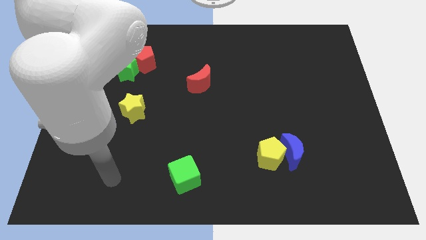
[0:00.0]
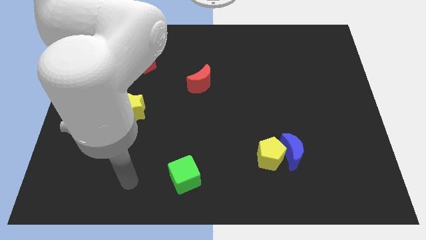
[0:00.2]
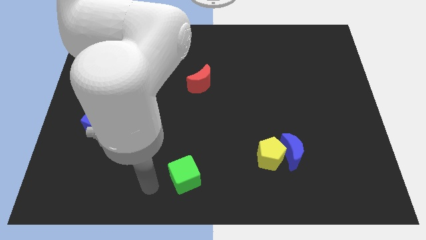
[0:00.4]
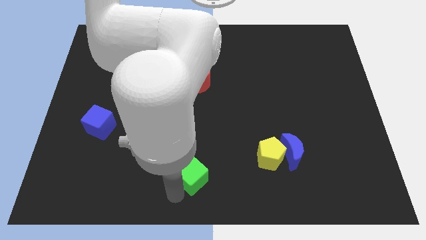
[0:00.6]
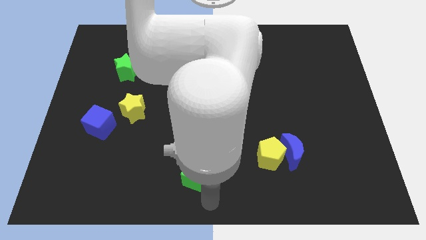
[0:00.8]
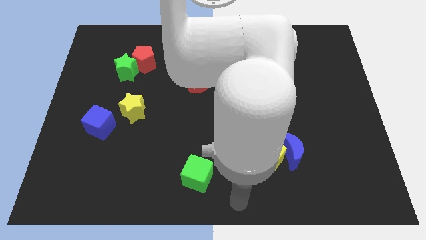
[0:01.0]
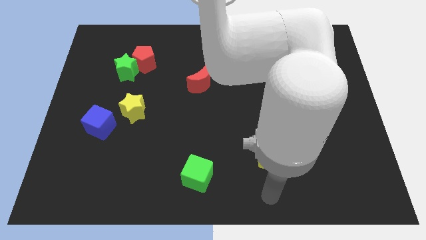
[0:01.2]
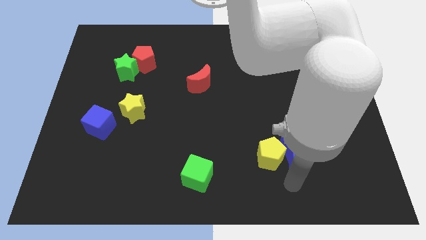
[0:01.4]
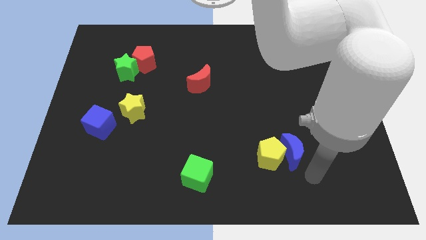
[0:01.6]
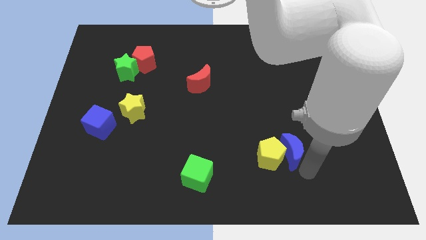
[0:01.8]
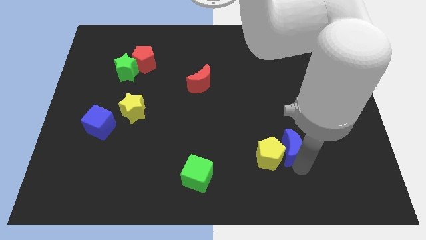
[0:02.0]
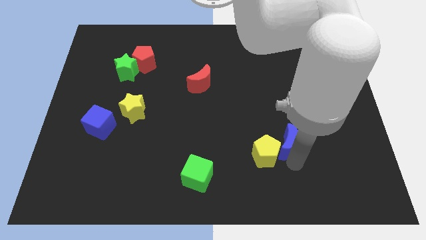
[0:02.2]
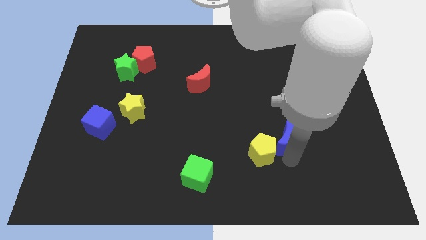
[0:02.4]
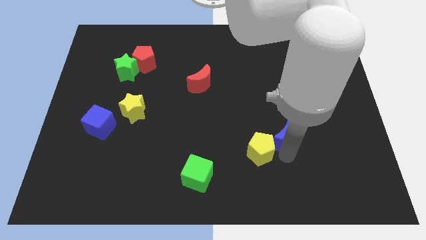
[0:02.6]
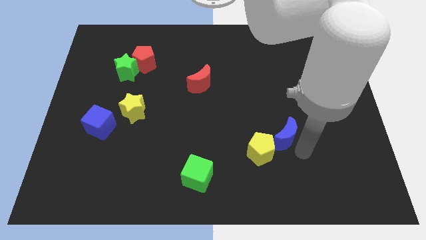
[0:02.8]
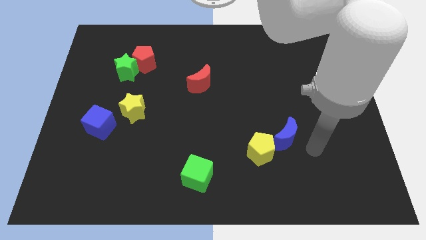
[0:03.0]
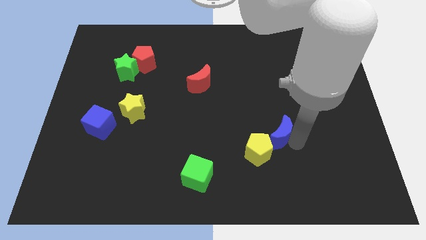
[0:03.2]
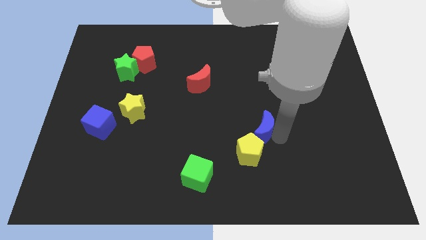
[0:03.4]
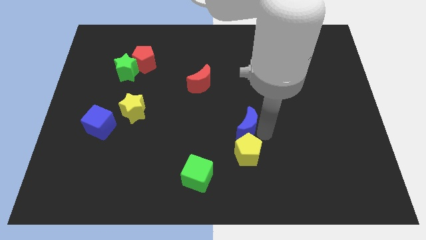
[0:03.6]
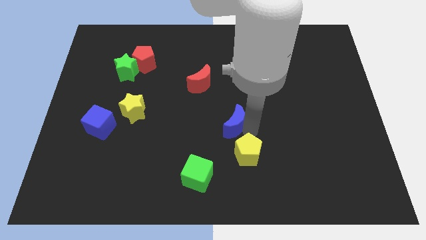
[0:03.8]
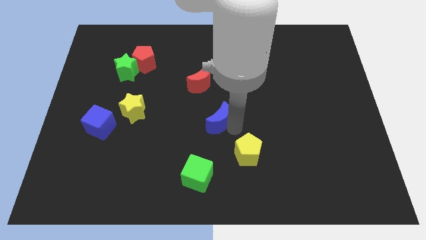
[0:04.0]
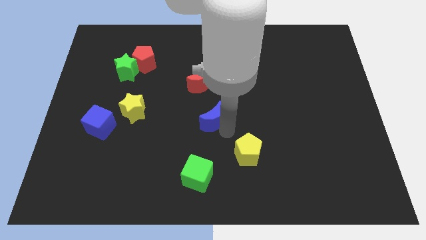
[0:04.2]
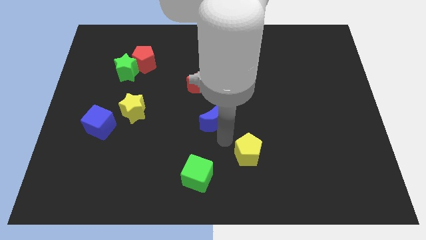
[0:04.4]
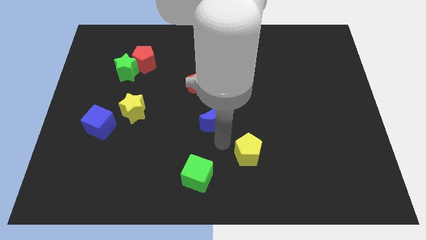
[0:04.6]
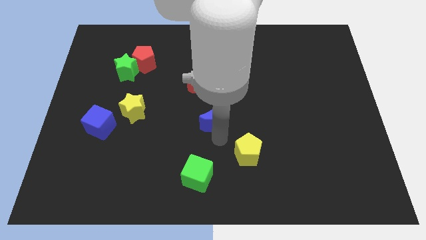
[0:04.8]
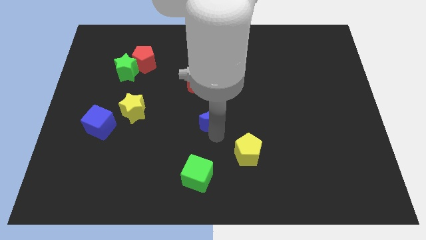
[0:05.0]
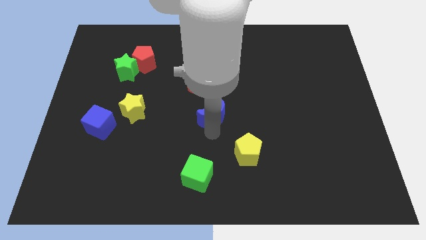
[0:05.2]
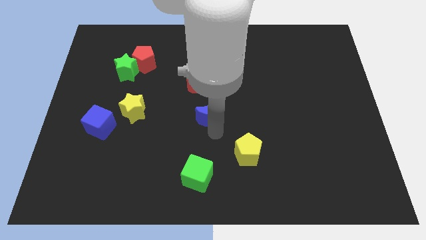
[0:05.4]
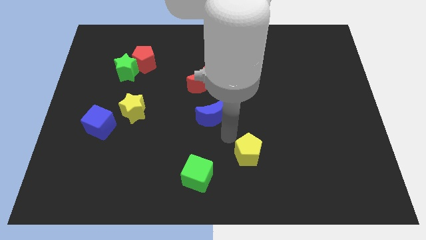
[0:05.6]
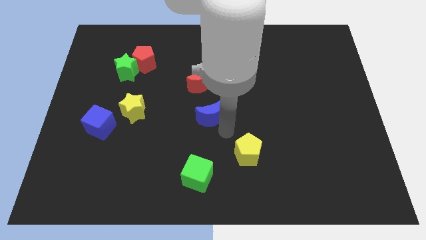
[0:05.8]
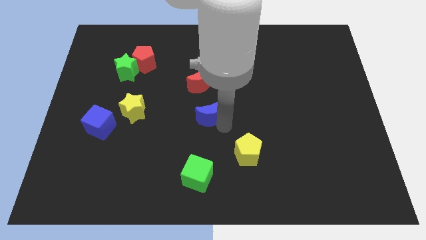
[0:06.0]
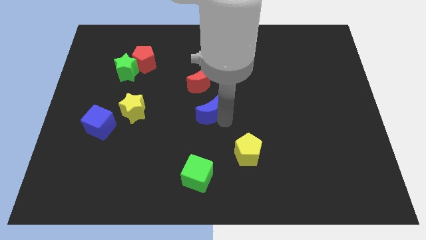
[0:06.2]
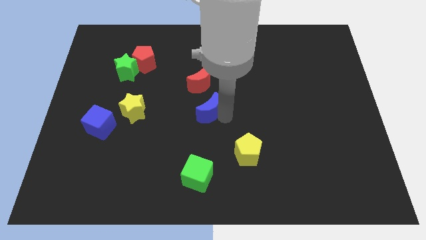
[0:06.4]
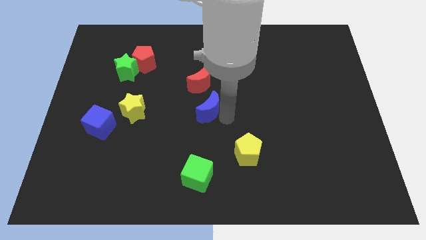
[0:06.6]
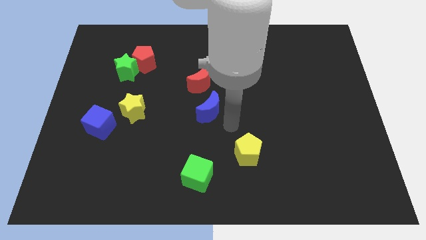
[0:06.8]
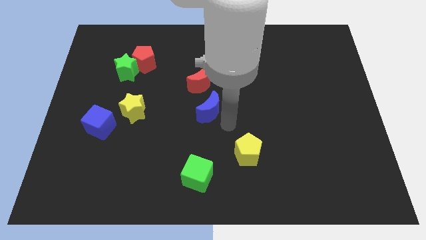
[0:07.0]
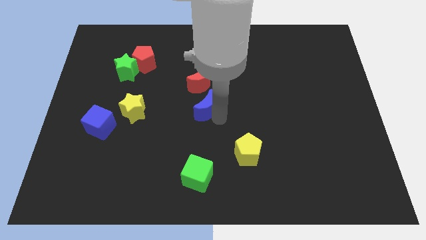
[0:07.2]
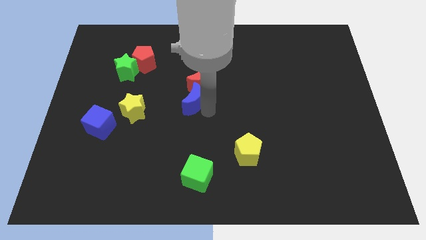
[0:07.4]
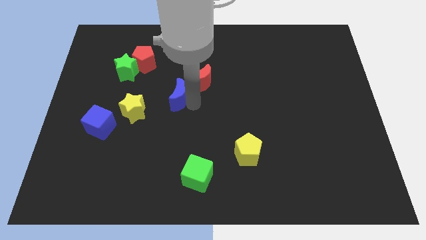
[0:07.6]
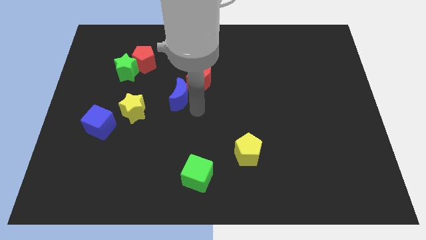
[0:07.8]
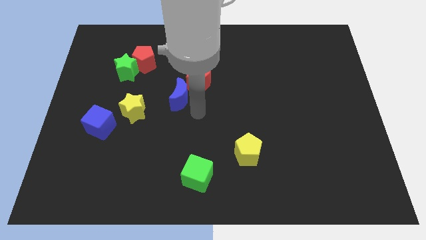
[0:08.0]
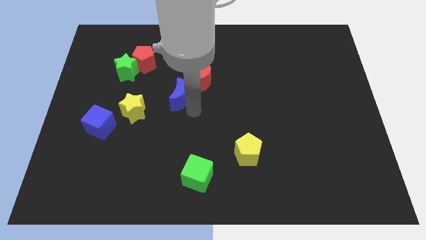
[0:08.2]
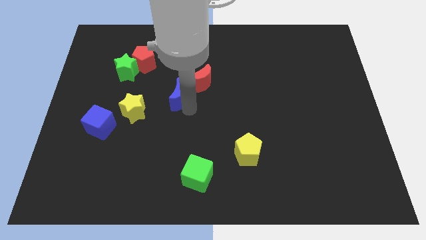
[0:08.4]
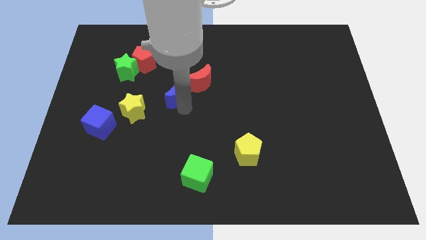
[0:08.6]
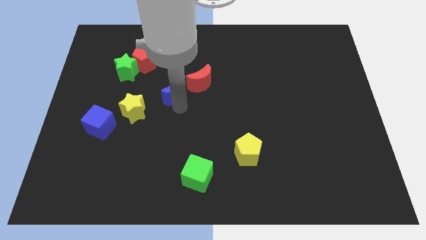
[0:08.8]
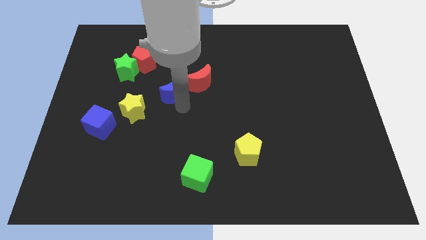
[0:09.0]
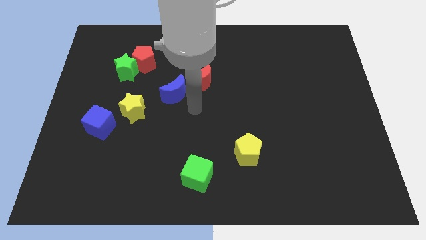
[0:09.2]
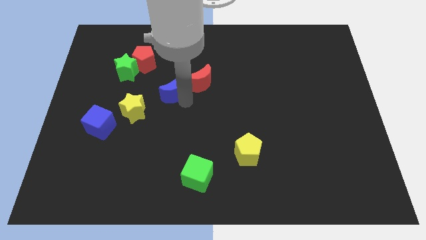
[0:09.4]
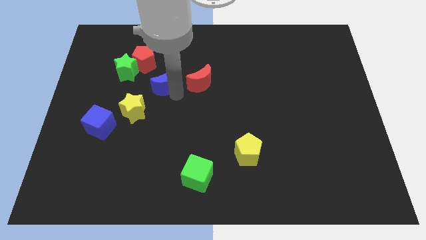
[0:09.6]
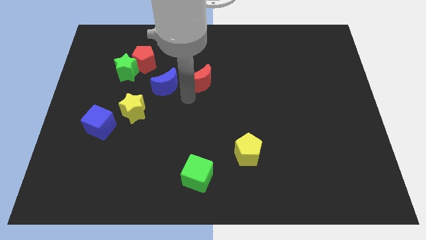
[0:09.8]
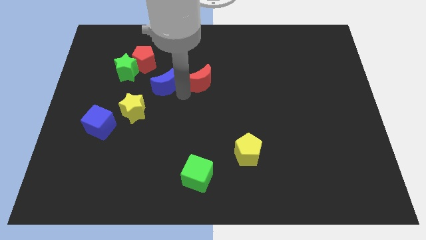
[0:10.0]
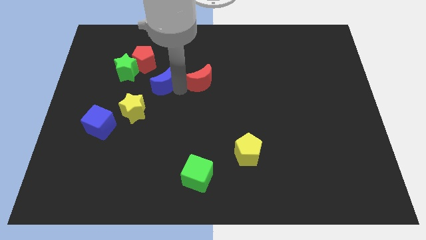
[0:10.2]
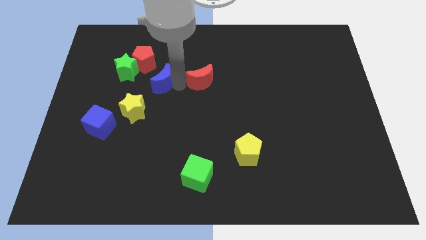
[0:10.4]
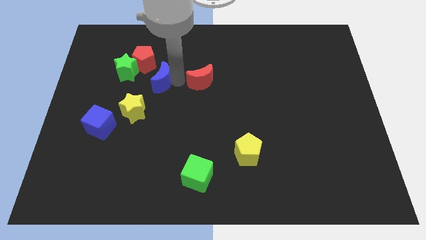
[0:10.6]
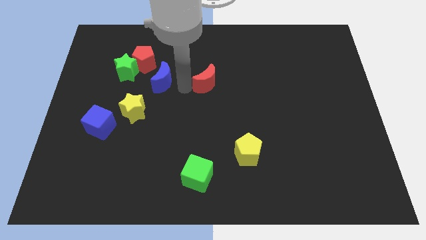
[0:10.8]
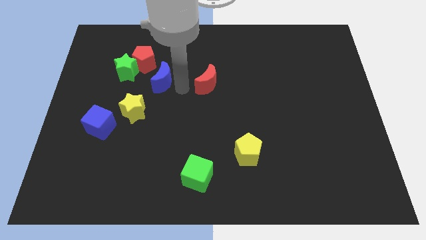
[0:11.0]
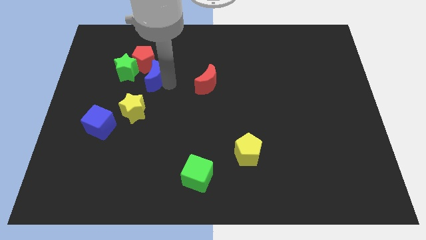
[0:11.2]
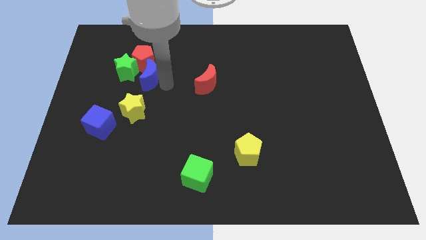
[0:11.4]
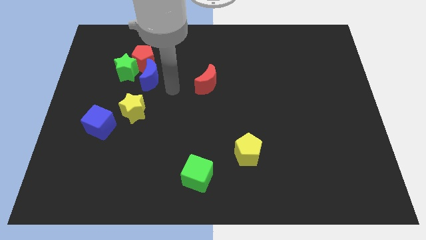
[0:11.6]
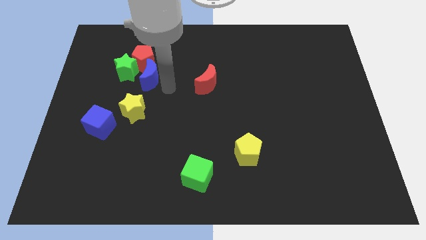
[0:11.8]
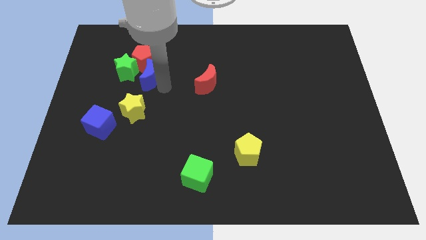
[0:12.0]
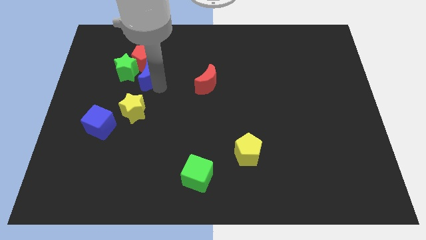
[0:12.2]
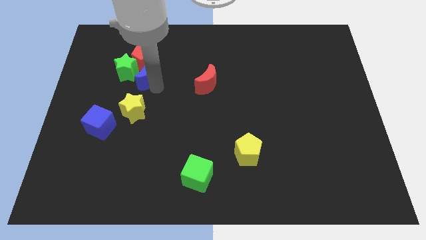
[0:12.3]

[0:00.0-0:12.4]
put the blue moon to the green star

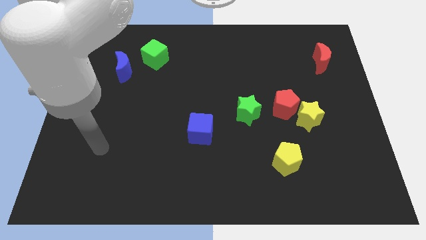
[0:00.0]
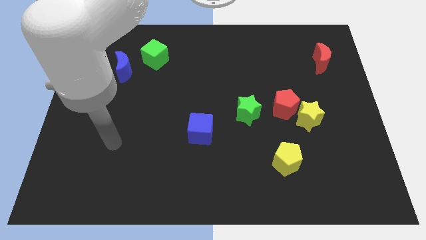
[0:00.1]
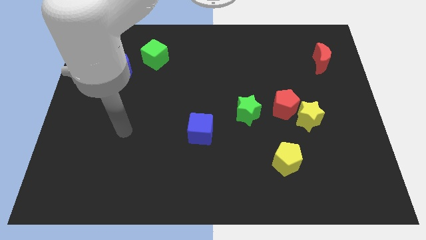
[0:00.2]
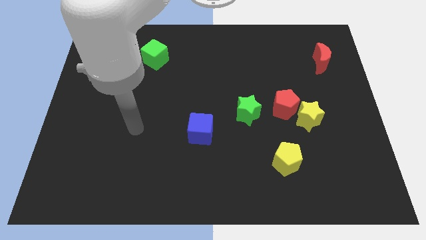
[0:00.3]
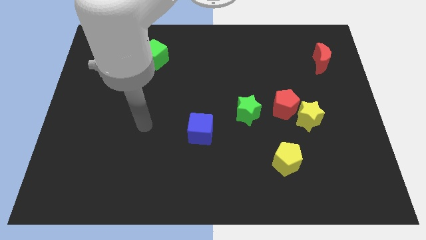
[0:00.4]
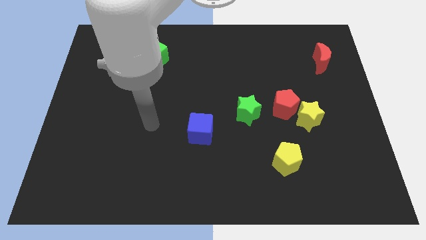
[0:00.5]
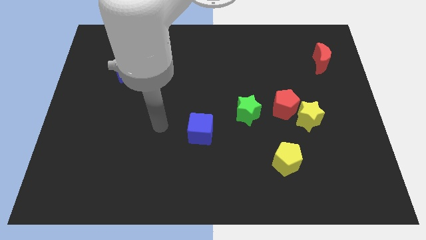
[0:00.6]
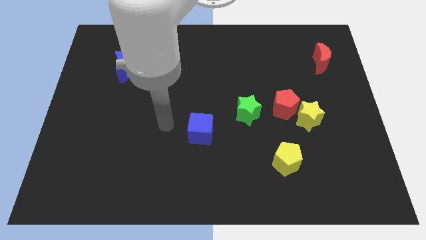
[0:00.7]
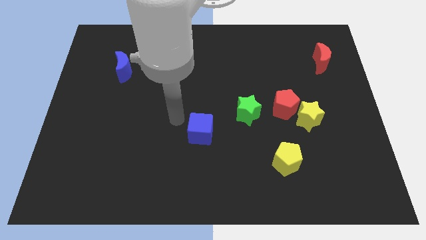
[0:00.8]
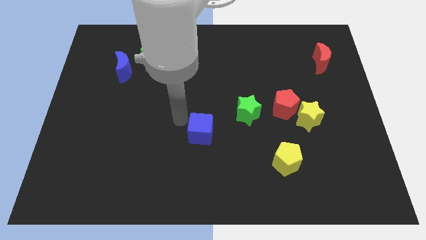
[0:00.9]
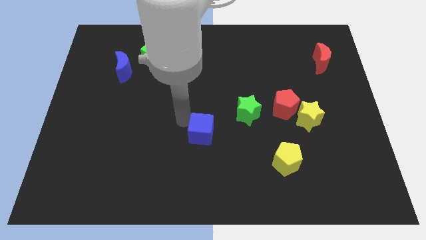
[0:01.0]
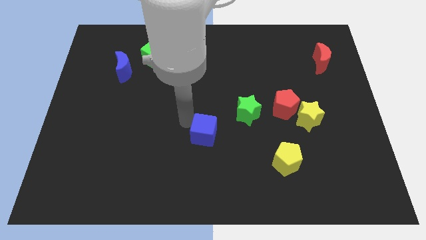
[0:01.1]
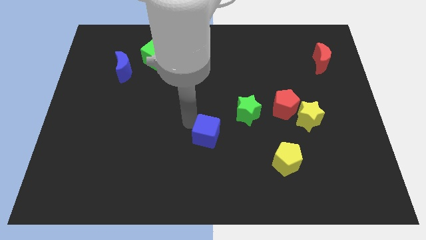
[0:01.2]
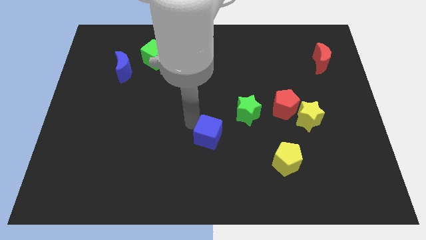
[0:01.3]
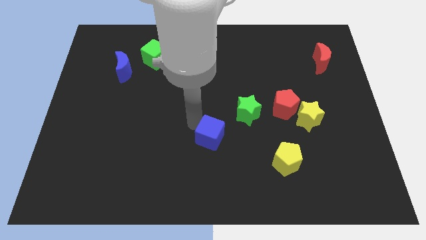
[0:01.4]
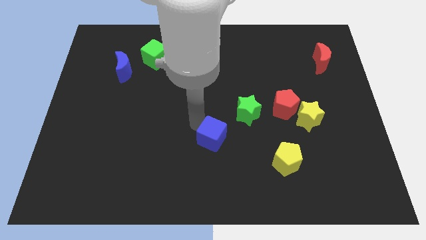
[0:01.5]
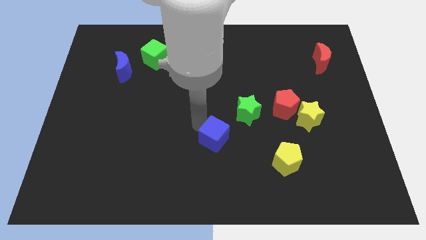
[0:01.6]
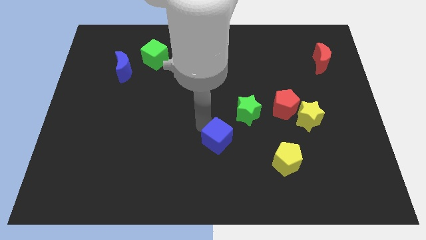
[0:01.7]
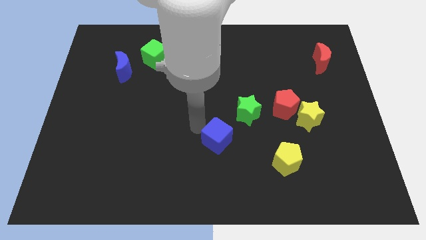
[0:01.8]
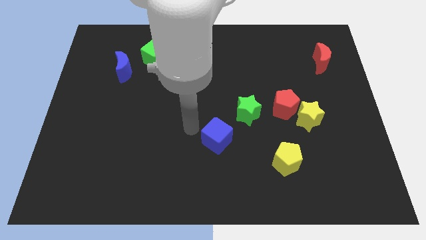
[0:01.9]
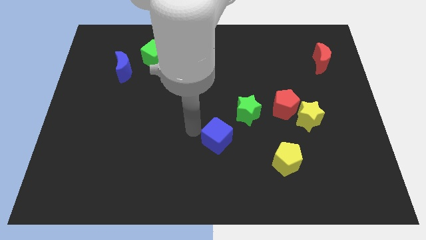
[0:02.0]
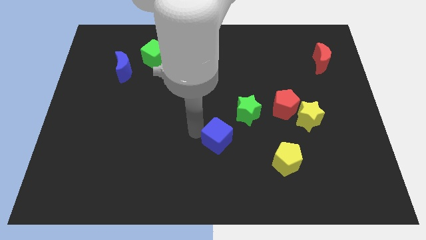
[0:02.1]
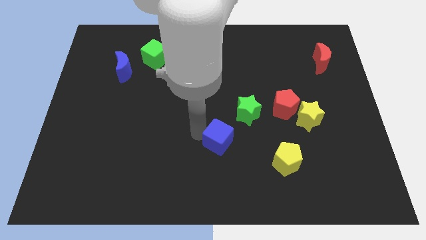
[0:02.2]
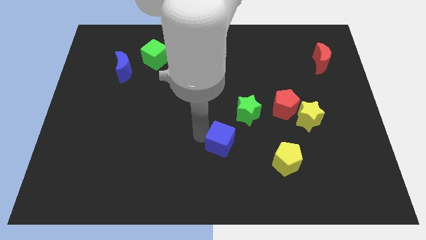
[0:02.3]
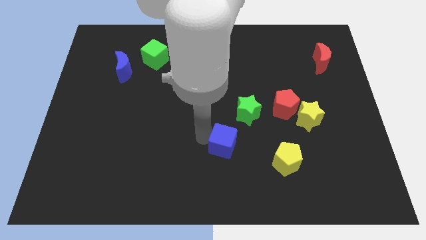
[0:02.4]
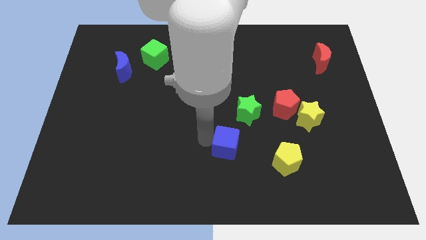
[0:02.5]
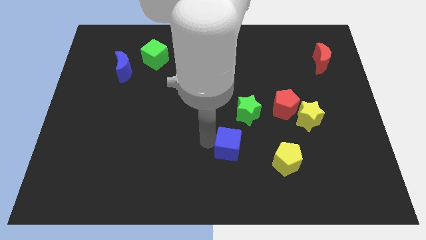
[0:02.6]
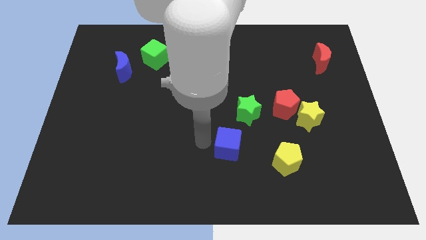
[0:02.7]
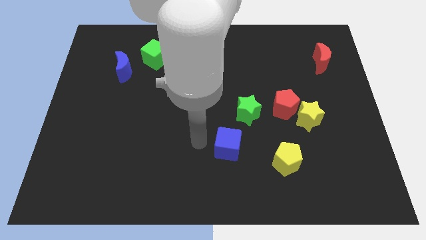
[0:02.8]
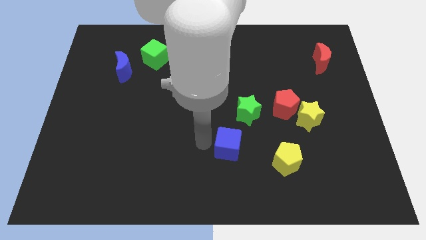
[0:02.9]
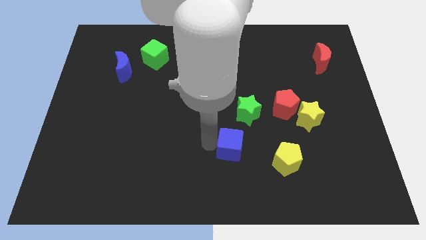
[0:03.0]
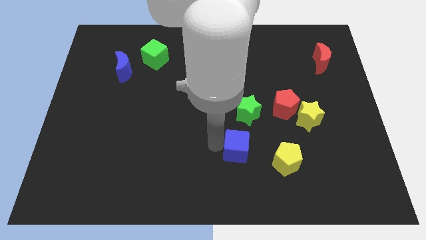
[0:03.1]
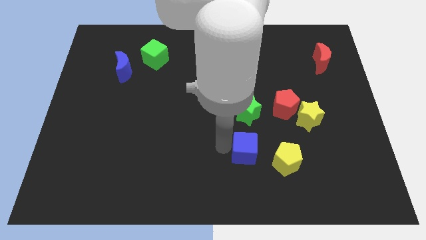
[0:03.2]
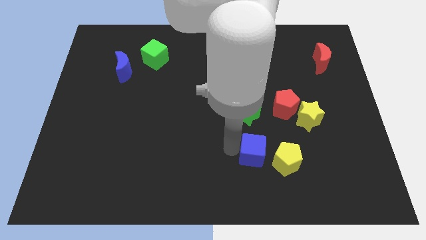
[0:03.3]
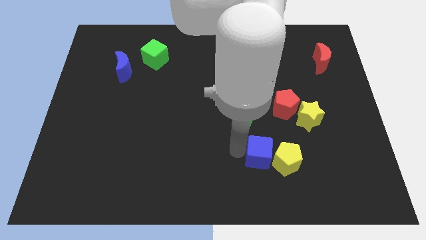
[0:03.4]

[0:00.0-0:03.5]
move the blue cube close to the yellow pentagon
